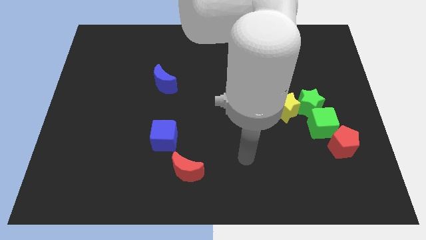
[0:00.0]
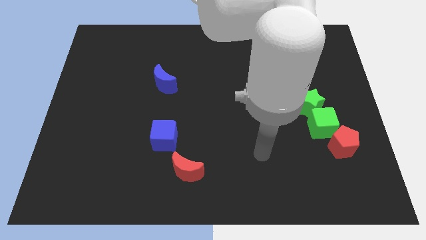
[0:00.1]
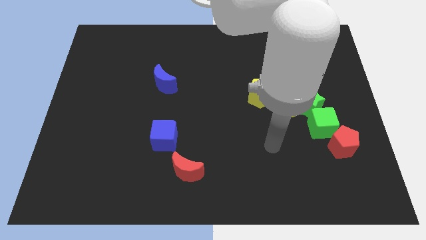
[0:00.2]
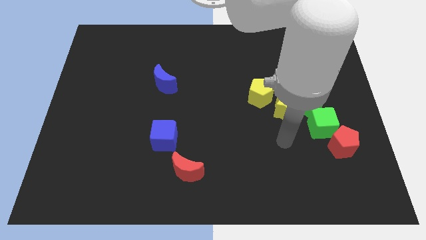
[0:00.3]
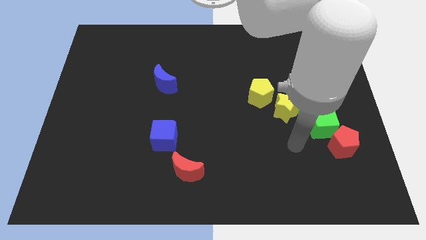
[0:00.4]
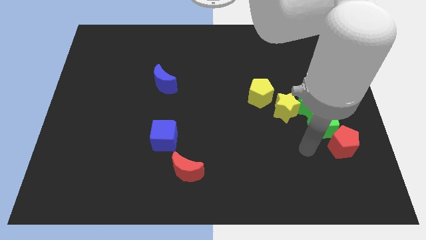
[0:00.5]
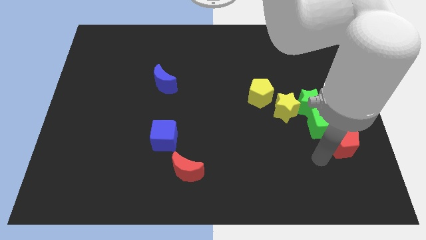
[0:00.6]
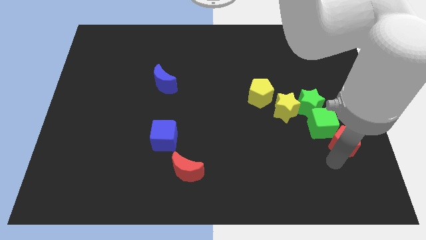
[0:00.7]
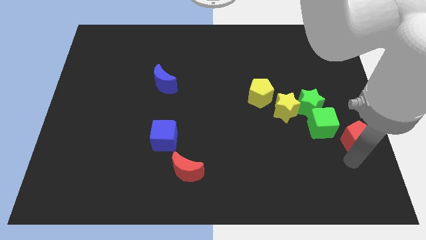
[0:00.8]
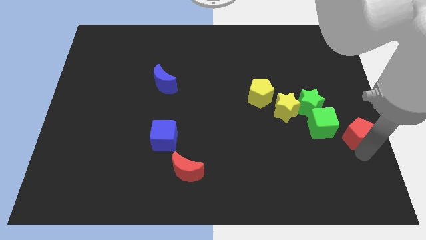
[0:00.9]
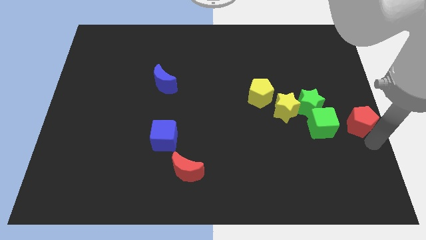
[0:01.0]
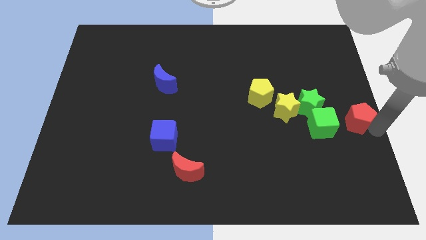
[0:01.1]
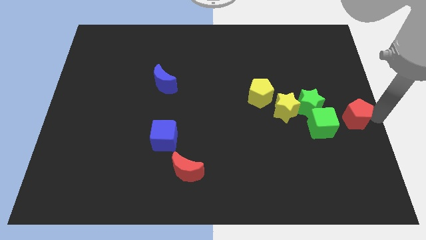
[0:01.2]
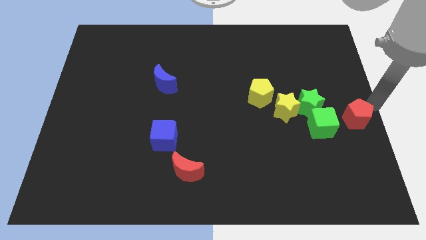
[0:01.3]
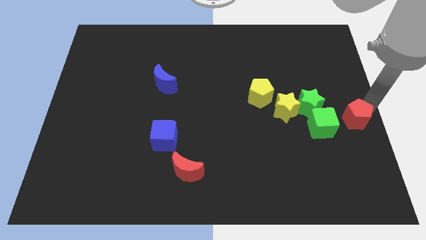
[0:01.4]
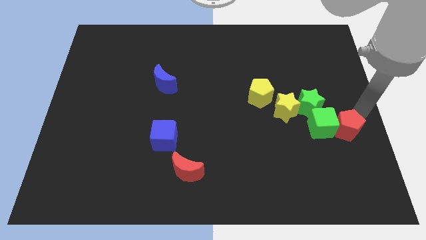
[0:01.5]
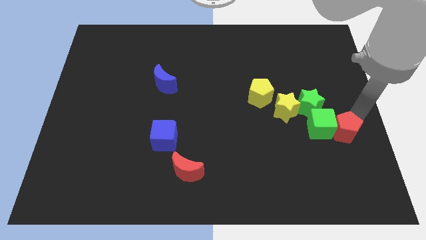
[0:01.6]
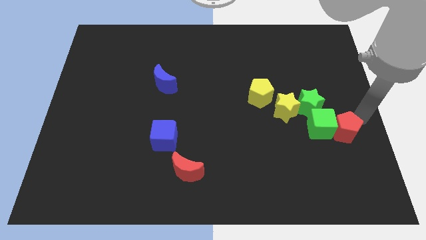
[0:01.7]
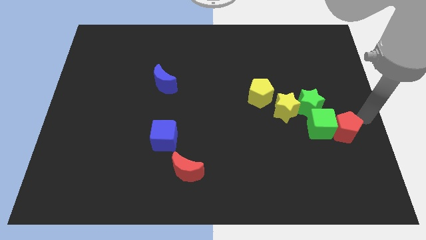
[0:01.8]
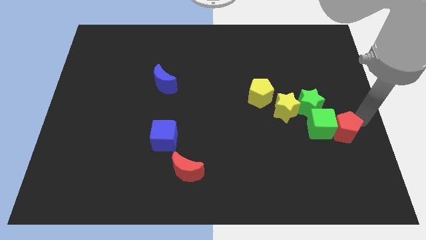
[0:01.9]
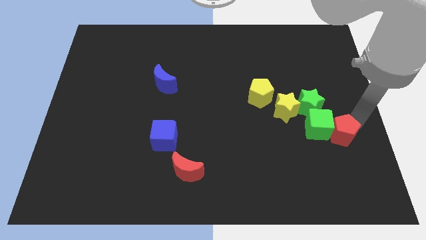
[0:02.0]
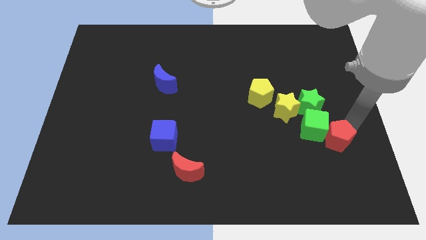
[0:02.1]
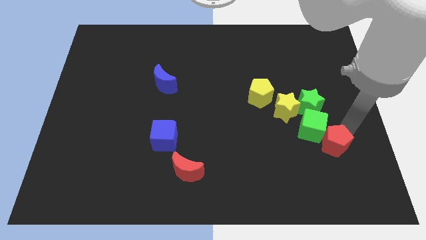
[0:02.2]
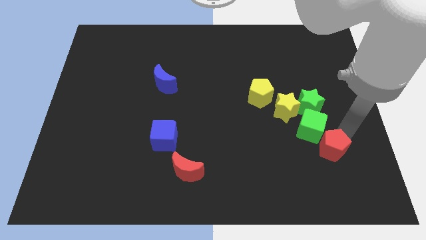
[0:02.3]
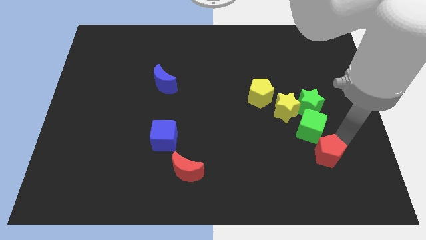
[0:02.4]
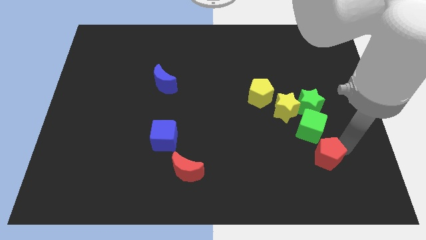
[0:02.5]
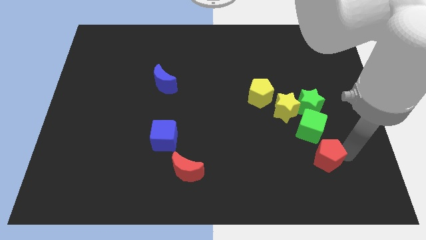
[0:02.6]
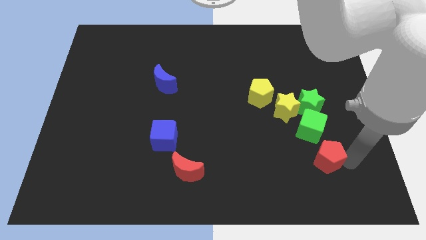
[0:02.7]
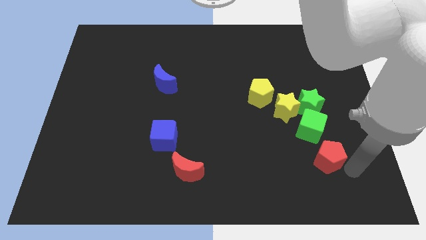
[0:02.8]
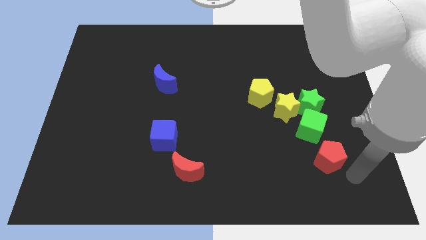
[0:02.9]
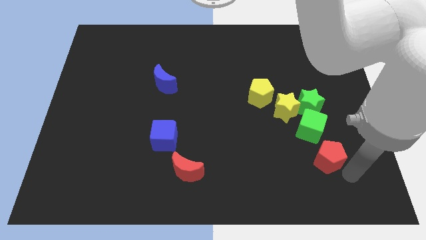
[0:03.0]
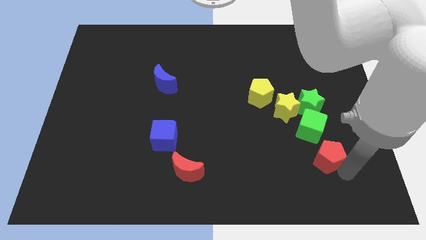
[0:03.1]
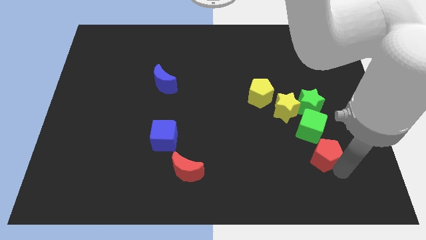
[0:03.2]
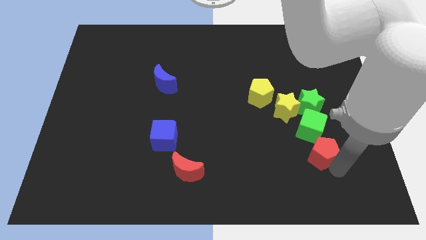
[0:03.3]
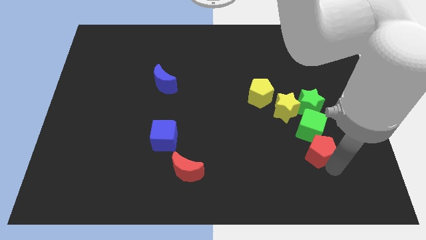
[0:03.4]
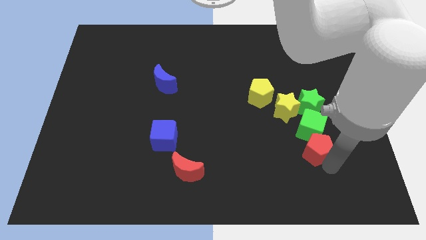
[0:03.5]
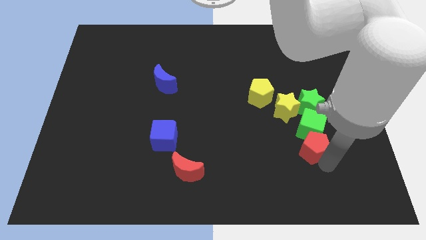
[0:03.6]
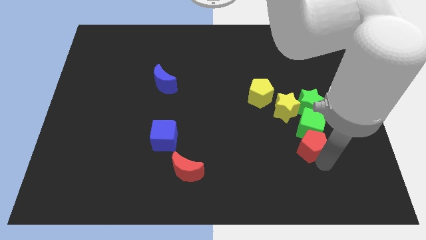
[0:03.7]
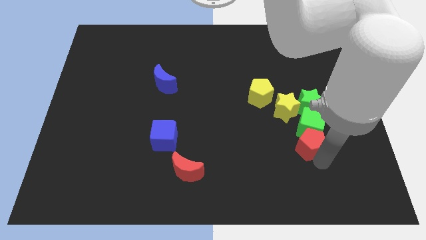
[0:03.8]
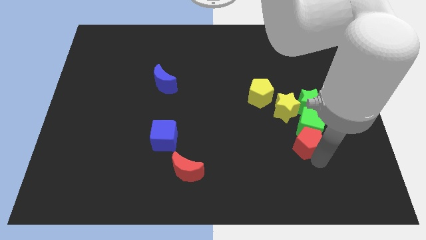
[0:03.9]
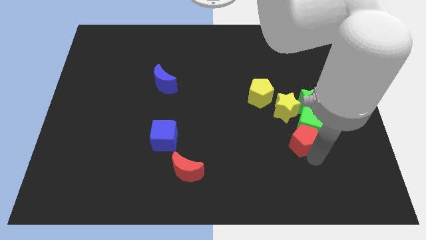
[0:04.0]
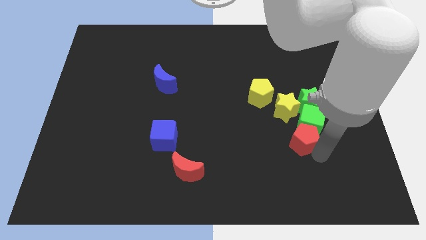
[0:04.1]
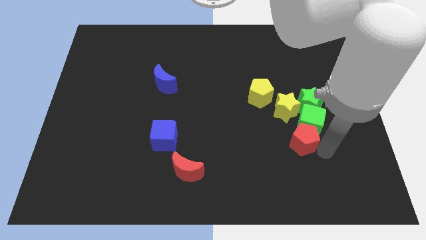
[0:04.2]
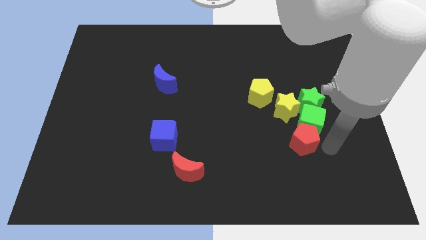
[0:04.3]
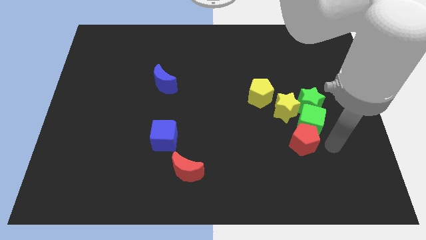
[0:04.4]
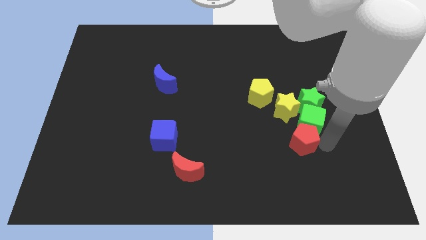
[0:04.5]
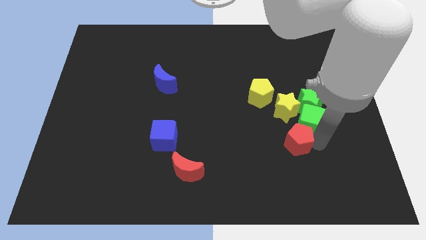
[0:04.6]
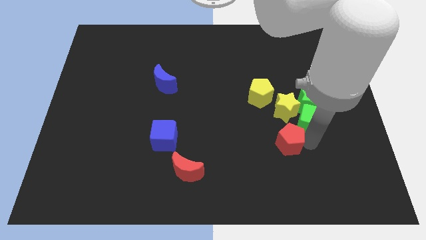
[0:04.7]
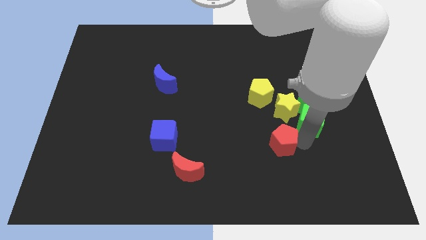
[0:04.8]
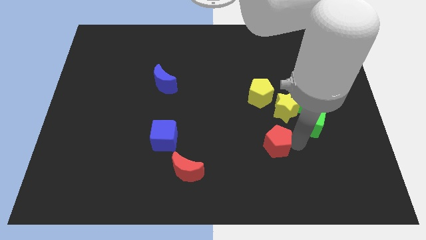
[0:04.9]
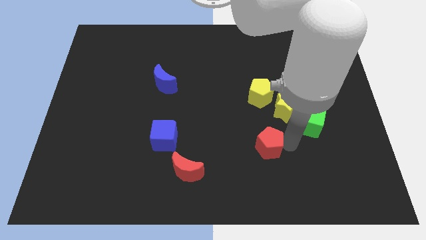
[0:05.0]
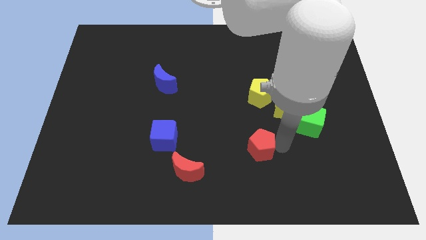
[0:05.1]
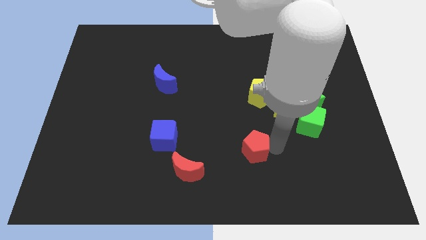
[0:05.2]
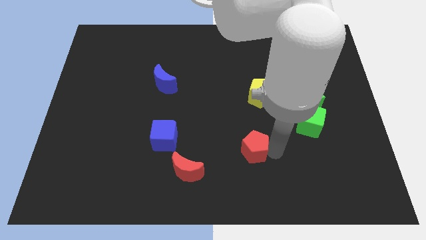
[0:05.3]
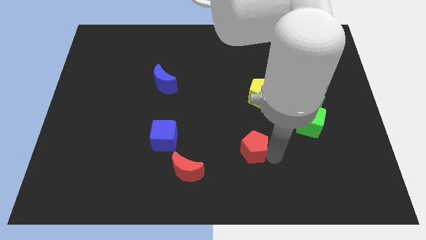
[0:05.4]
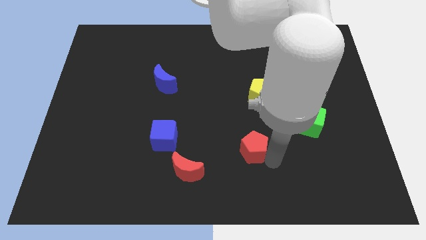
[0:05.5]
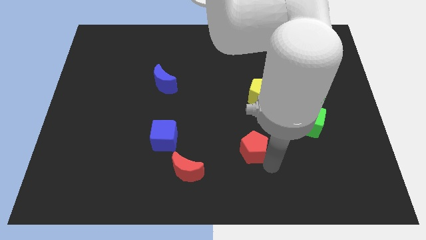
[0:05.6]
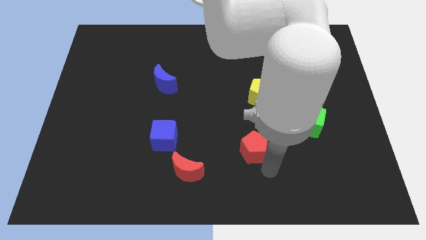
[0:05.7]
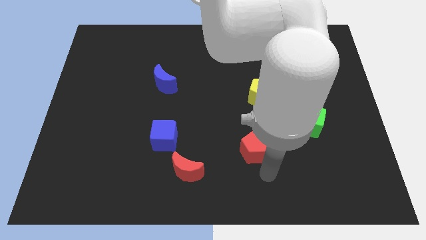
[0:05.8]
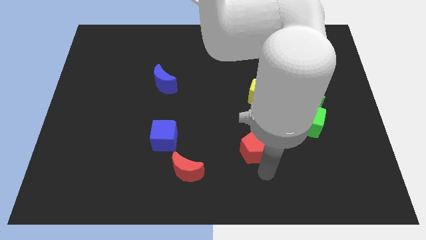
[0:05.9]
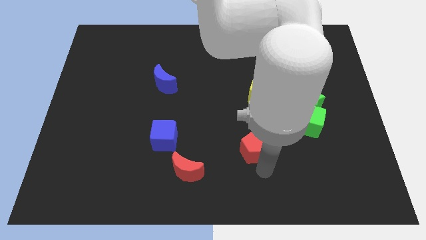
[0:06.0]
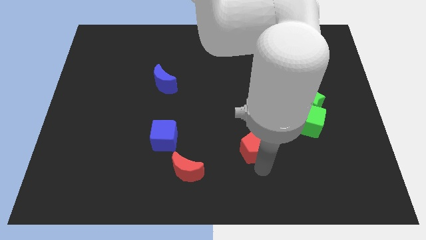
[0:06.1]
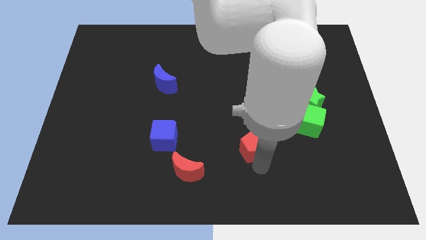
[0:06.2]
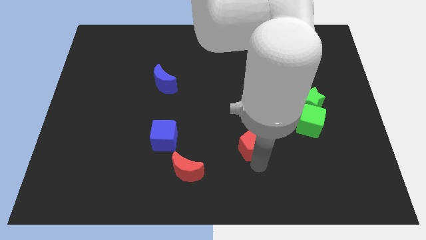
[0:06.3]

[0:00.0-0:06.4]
move the red pentagon left

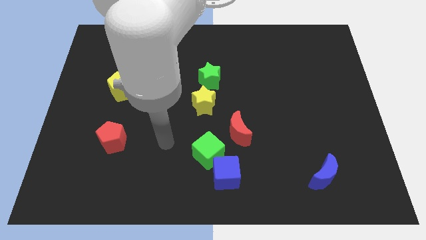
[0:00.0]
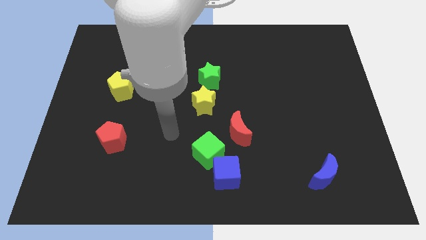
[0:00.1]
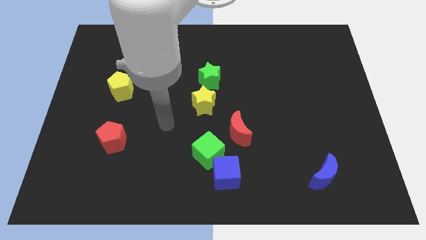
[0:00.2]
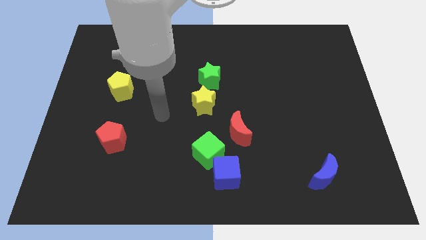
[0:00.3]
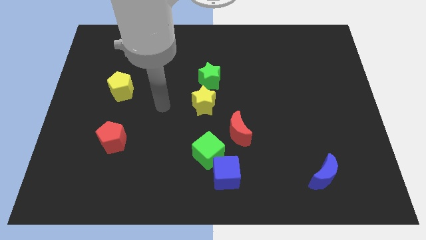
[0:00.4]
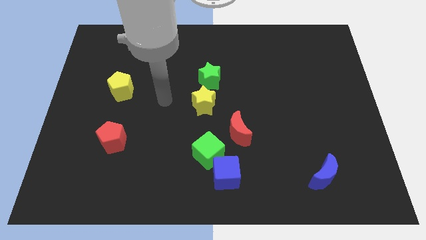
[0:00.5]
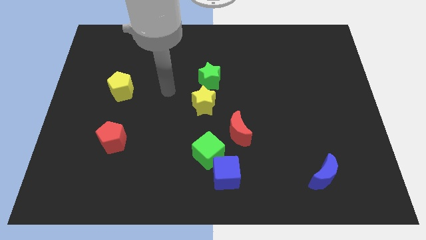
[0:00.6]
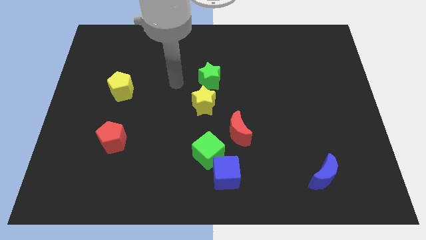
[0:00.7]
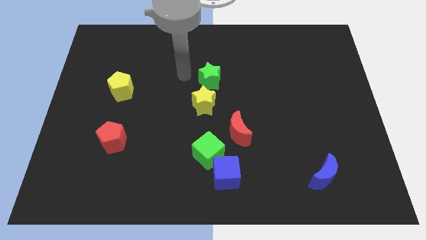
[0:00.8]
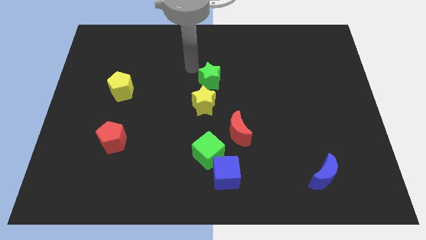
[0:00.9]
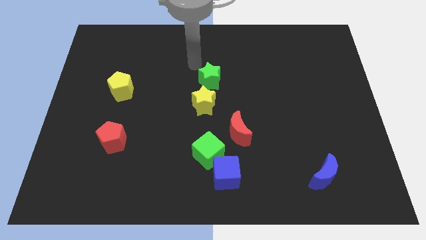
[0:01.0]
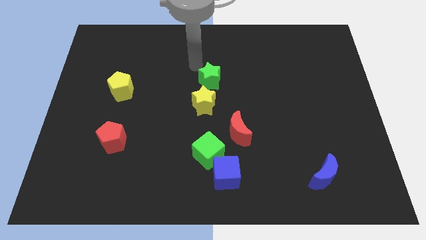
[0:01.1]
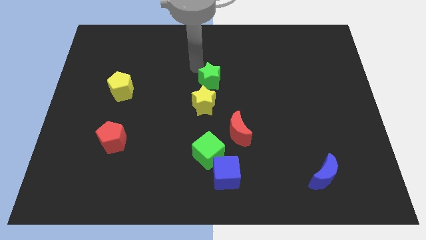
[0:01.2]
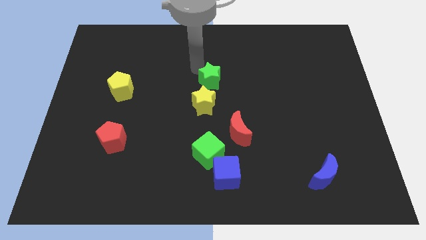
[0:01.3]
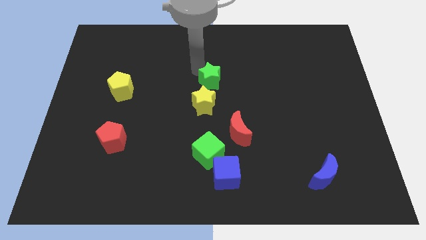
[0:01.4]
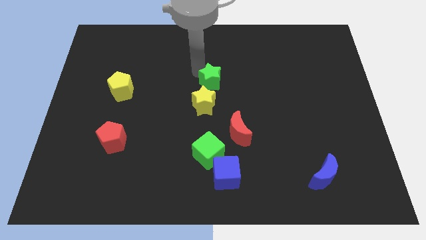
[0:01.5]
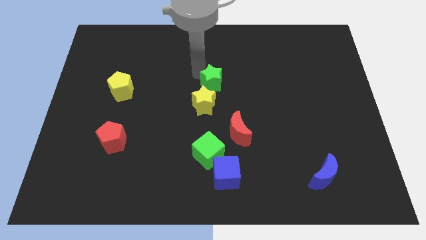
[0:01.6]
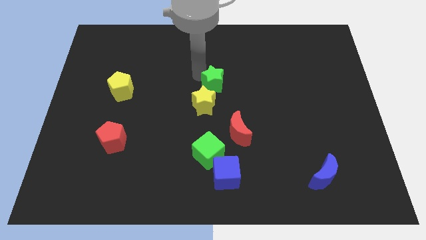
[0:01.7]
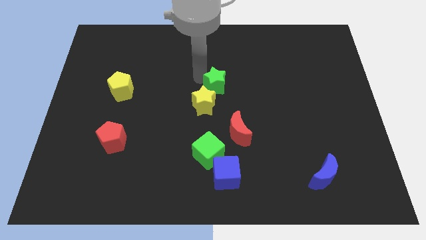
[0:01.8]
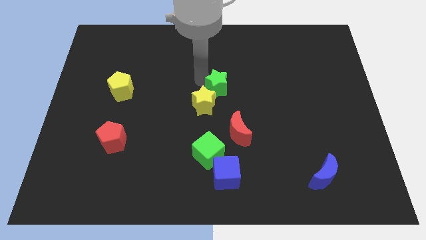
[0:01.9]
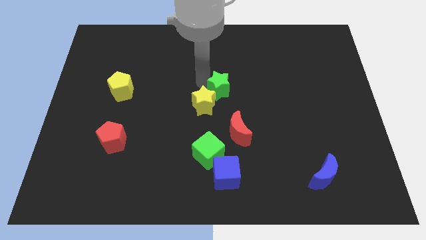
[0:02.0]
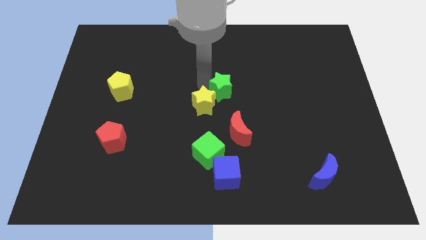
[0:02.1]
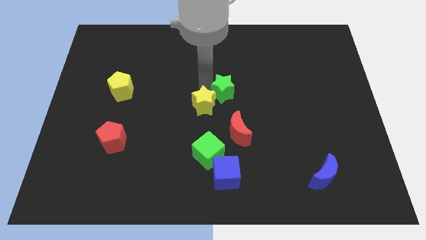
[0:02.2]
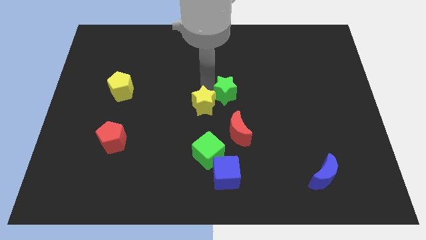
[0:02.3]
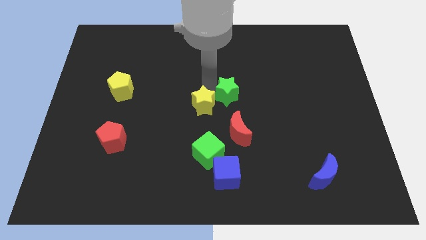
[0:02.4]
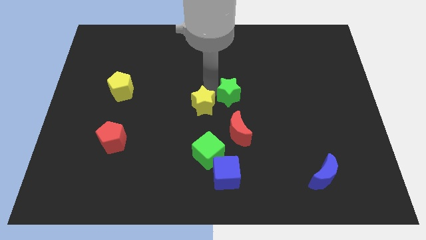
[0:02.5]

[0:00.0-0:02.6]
move the green star a little diagonally downwards and to the right
